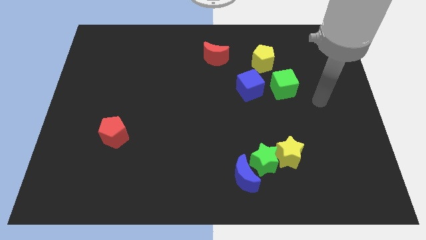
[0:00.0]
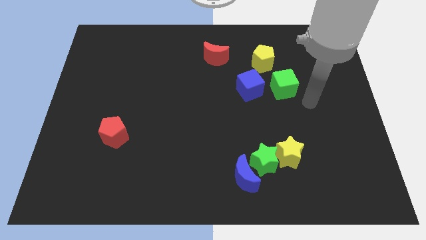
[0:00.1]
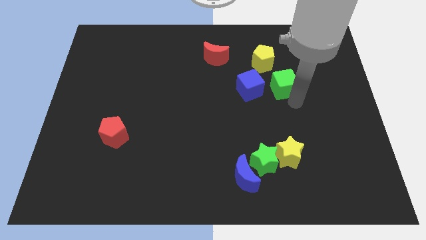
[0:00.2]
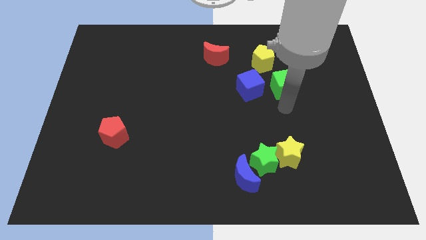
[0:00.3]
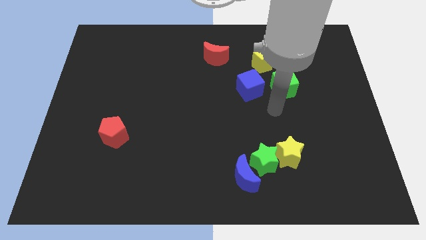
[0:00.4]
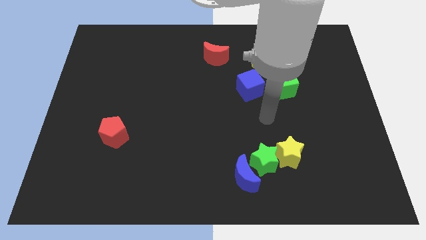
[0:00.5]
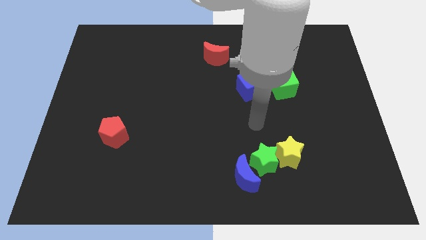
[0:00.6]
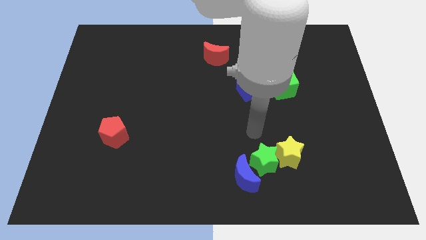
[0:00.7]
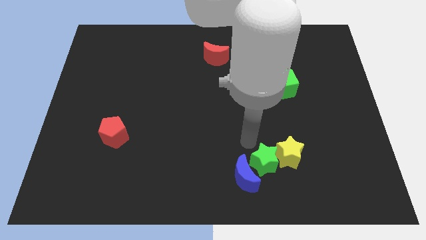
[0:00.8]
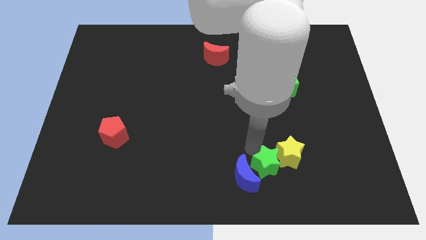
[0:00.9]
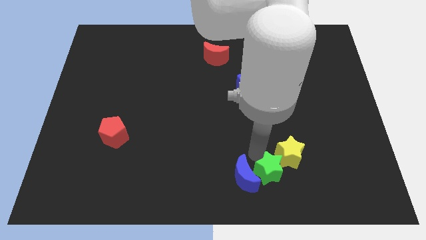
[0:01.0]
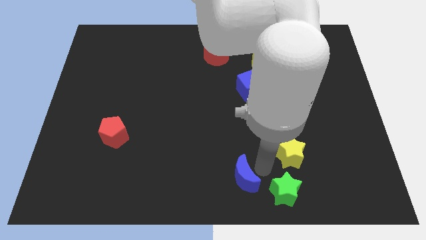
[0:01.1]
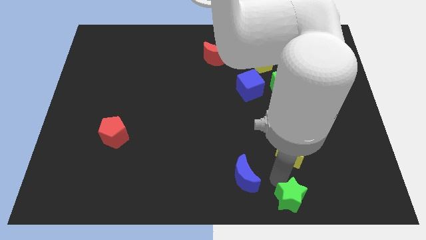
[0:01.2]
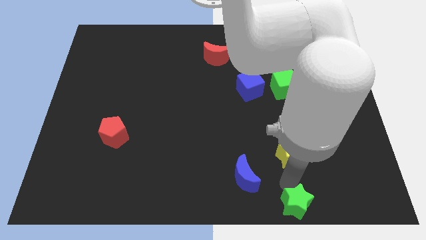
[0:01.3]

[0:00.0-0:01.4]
move the yellow star away from the green star

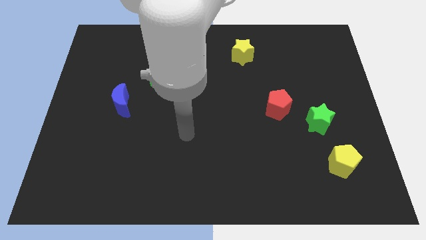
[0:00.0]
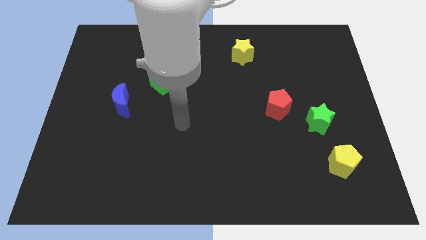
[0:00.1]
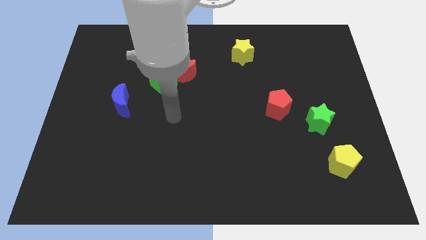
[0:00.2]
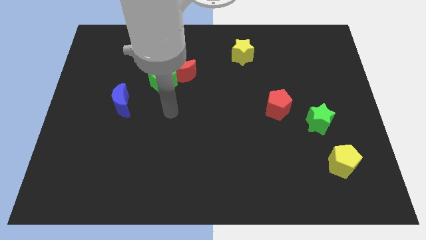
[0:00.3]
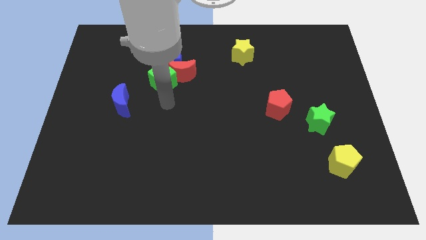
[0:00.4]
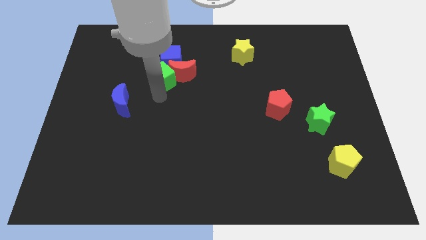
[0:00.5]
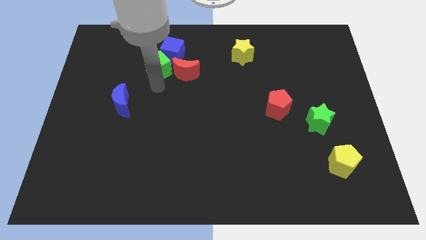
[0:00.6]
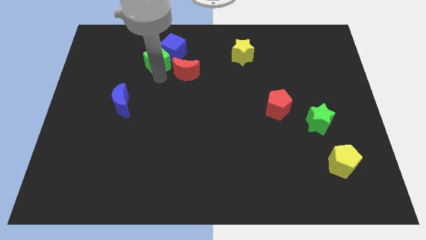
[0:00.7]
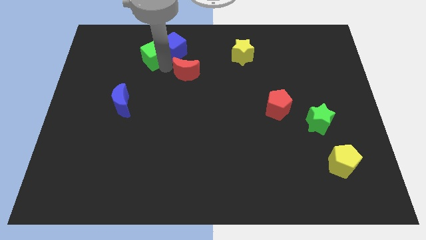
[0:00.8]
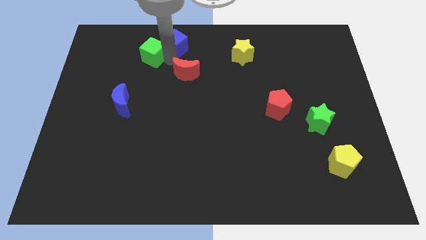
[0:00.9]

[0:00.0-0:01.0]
move the red moon away from the green cube and blue cube

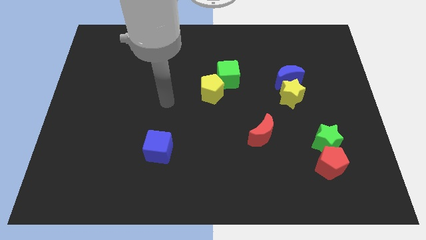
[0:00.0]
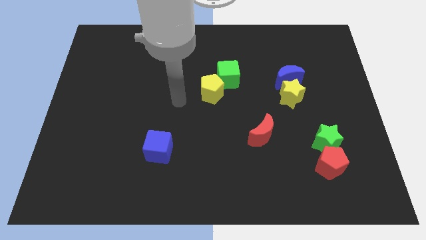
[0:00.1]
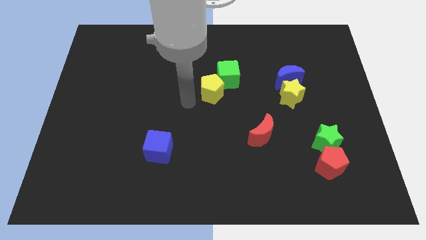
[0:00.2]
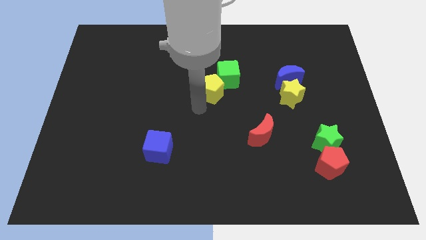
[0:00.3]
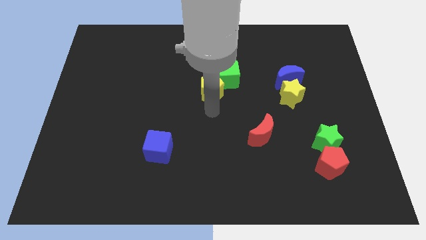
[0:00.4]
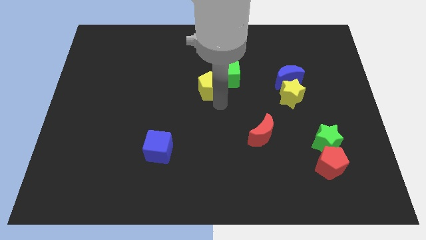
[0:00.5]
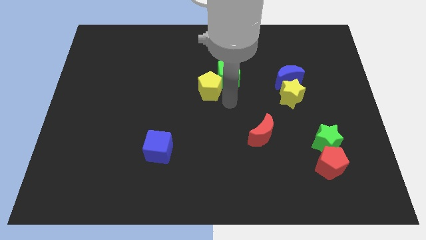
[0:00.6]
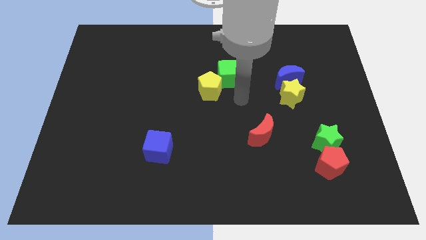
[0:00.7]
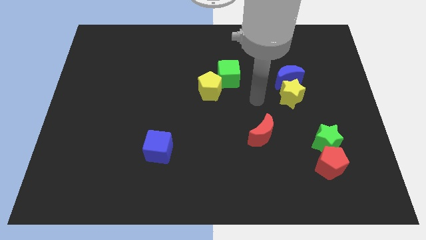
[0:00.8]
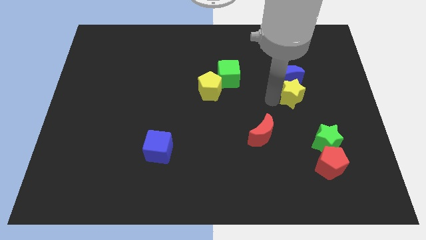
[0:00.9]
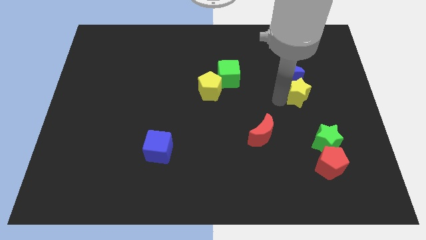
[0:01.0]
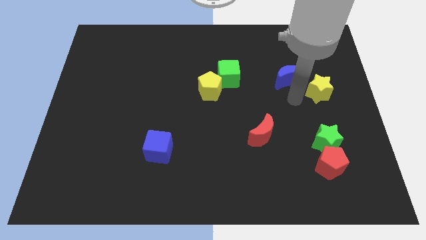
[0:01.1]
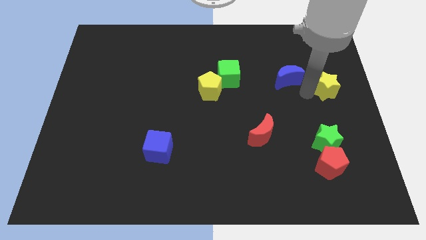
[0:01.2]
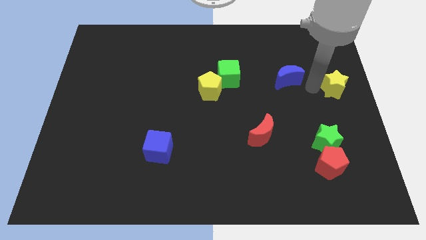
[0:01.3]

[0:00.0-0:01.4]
pull the blue moon apart from the yellow star

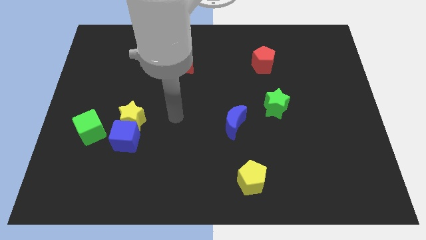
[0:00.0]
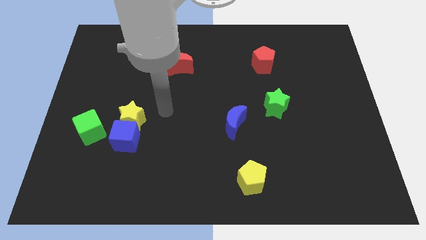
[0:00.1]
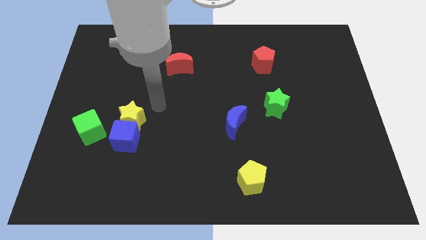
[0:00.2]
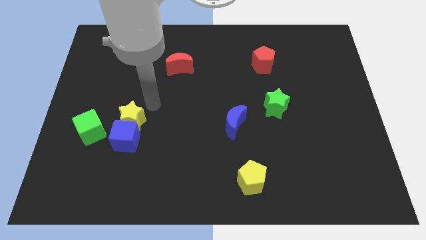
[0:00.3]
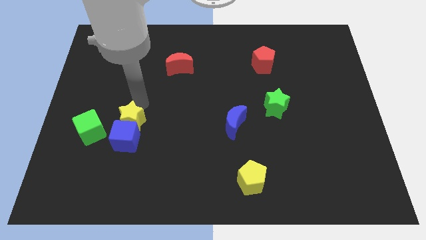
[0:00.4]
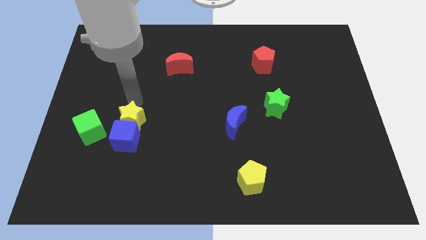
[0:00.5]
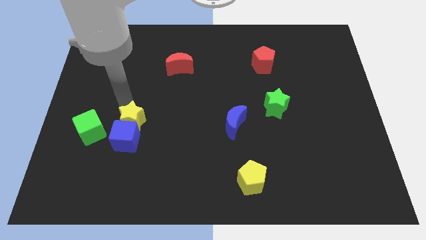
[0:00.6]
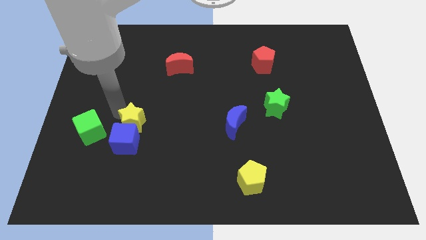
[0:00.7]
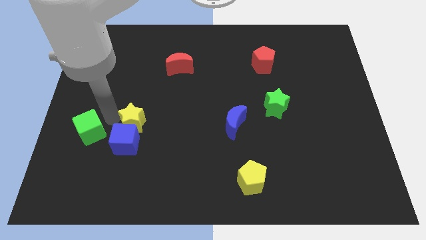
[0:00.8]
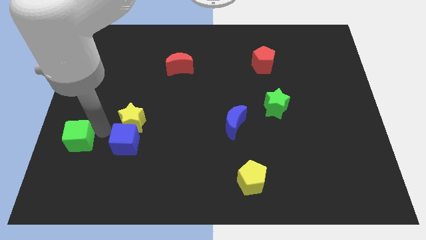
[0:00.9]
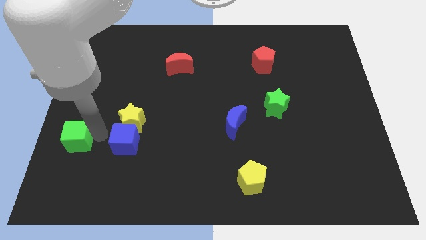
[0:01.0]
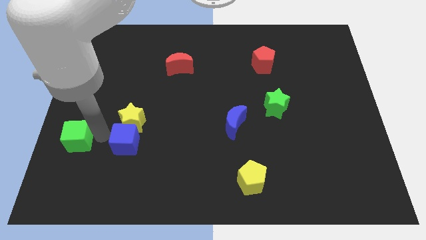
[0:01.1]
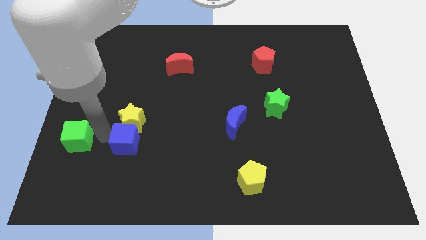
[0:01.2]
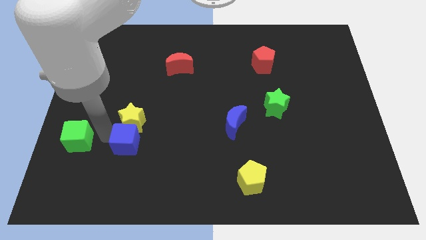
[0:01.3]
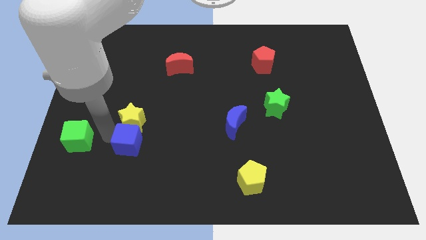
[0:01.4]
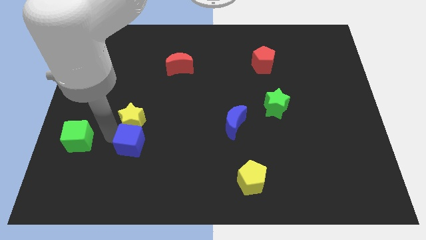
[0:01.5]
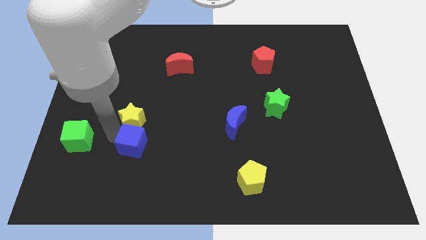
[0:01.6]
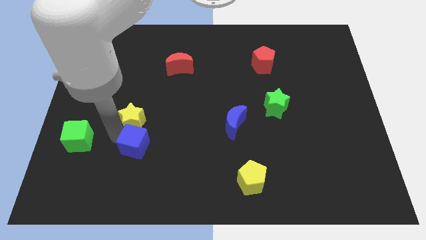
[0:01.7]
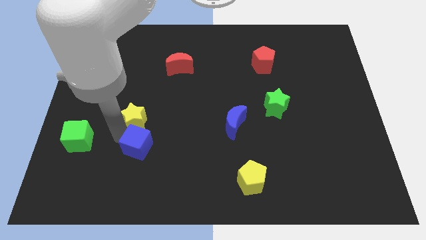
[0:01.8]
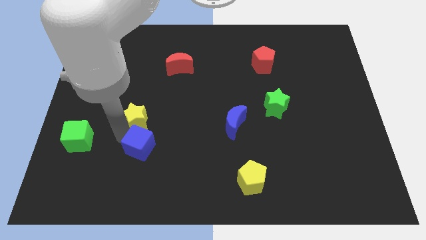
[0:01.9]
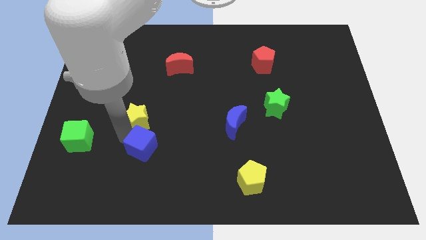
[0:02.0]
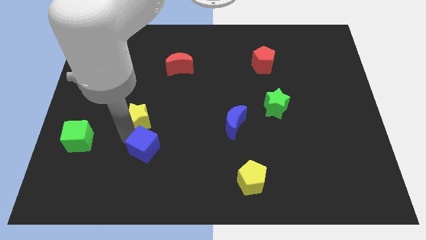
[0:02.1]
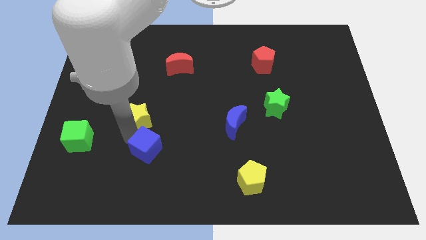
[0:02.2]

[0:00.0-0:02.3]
separate the blue cube from the yellow star and green cube

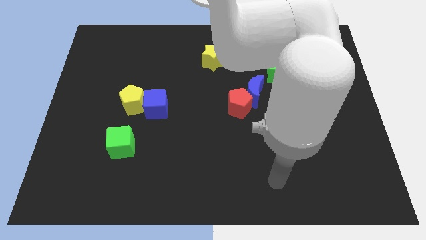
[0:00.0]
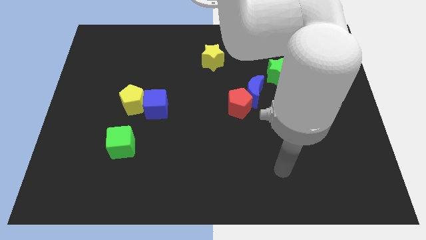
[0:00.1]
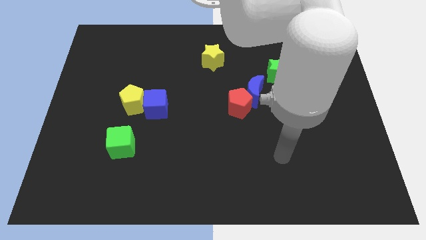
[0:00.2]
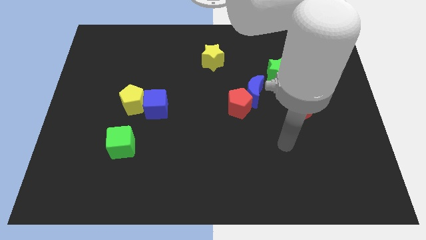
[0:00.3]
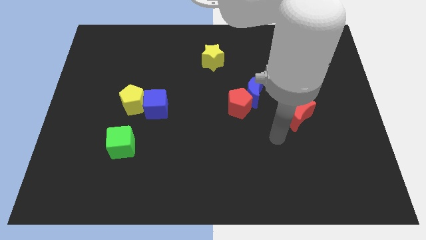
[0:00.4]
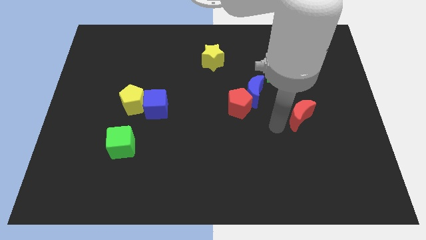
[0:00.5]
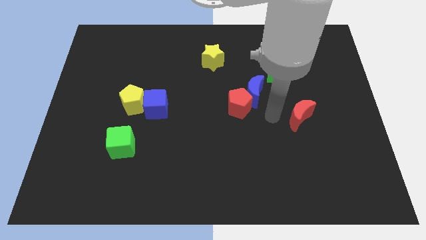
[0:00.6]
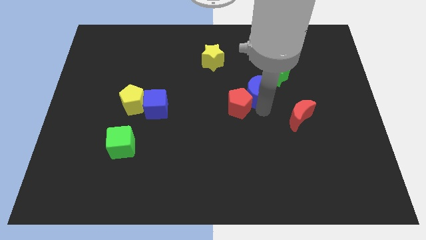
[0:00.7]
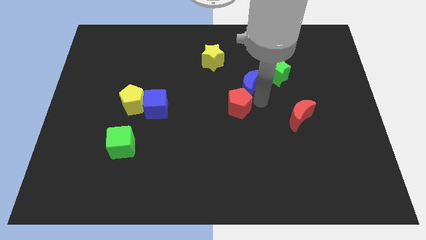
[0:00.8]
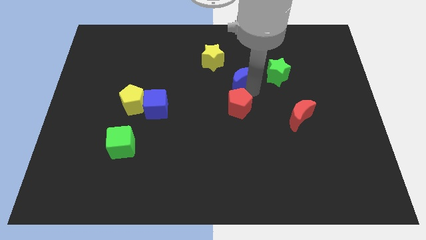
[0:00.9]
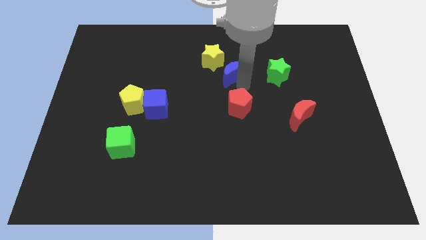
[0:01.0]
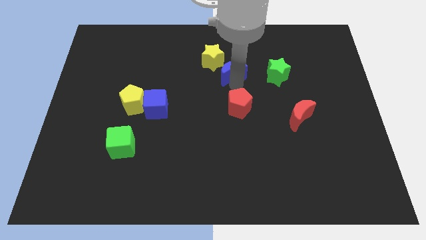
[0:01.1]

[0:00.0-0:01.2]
pull the red pentagon apart from the blue moon

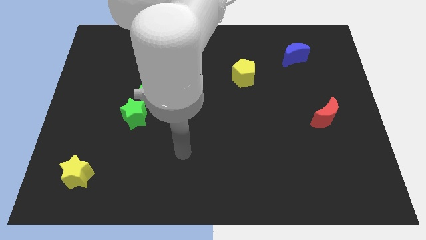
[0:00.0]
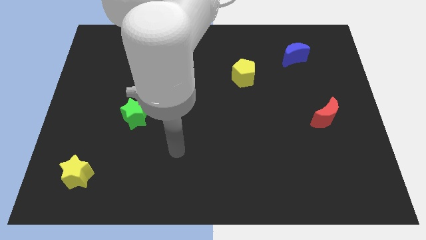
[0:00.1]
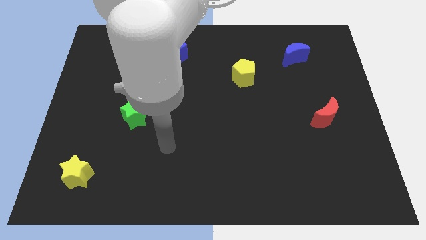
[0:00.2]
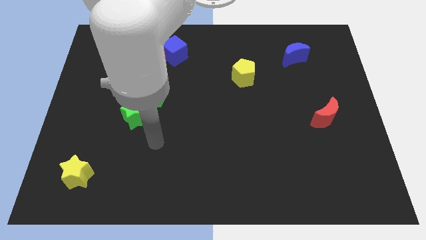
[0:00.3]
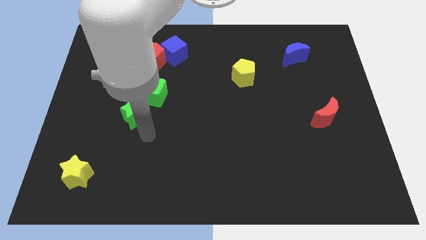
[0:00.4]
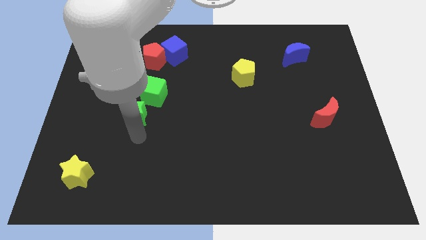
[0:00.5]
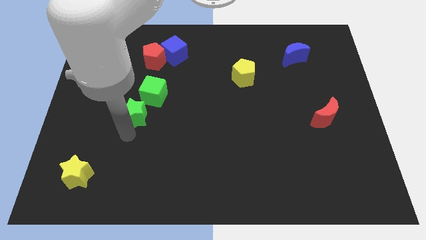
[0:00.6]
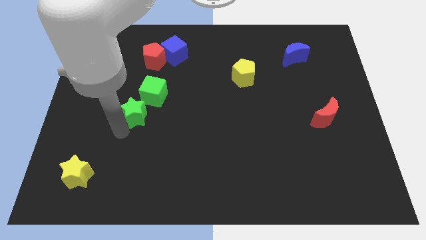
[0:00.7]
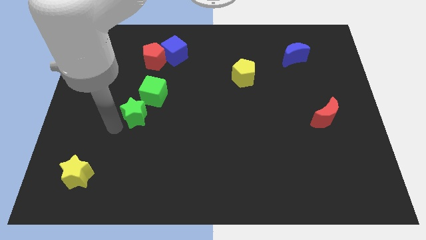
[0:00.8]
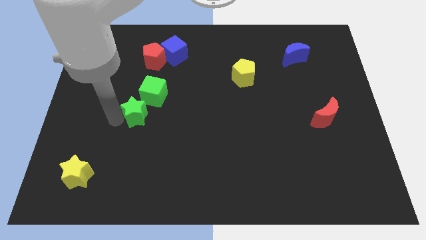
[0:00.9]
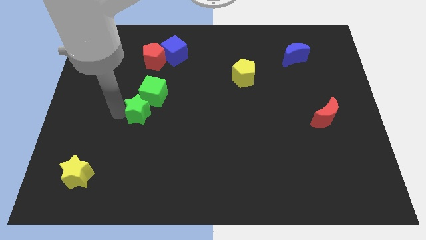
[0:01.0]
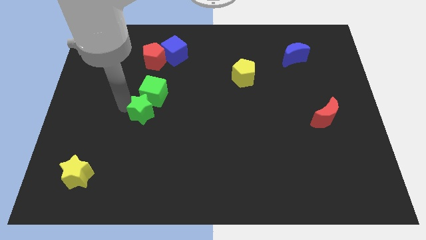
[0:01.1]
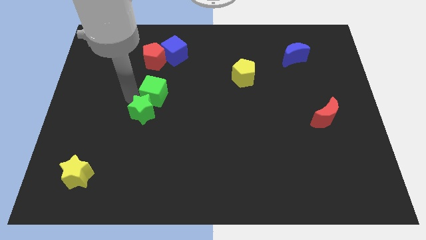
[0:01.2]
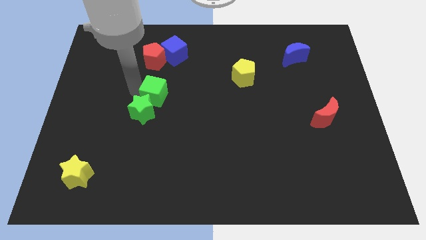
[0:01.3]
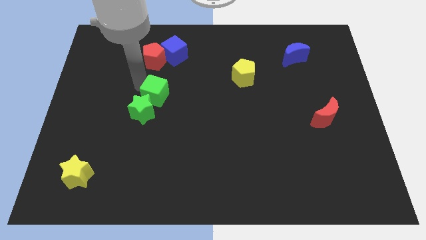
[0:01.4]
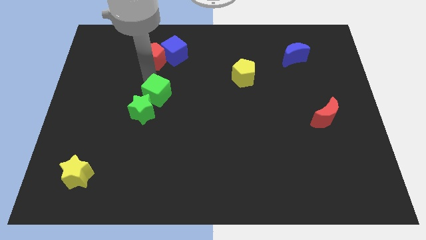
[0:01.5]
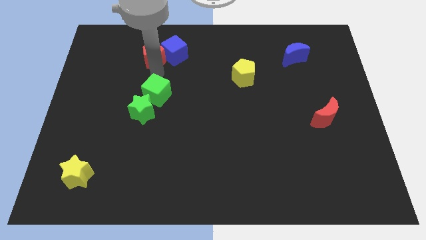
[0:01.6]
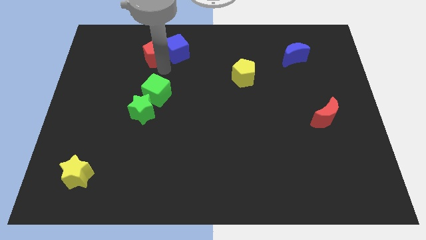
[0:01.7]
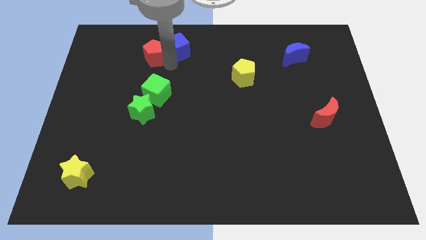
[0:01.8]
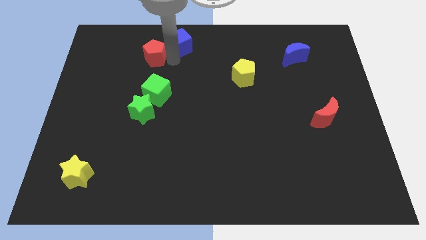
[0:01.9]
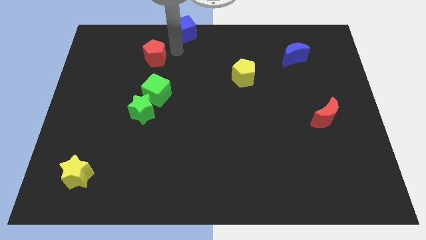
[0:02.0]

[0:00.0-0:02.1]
separate the red pentagon from the blue cube
